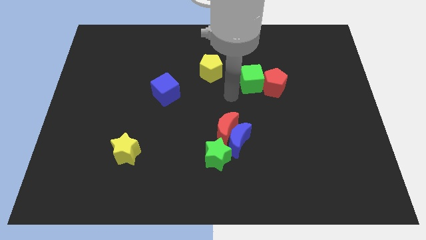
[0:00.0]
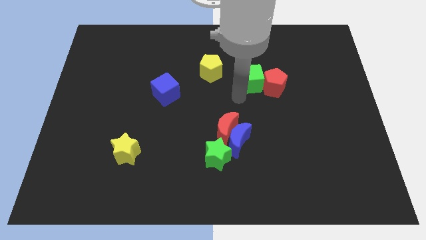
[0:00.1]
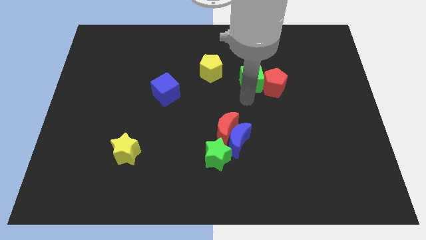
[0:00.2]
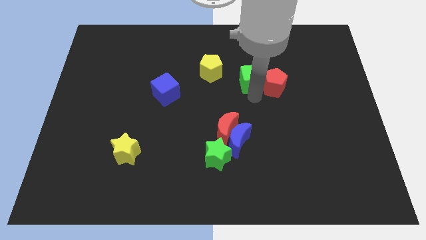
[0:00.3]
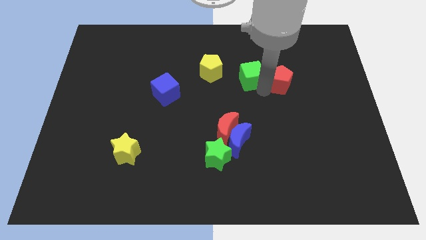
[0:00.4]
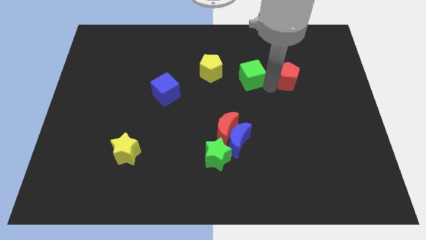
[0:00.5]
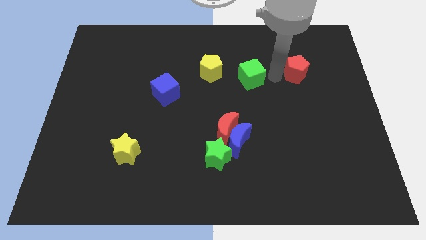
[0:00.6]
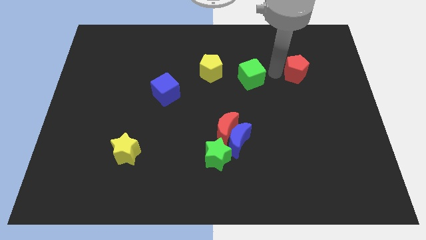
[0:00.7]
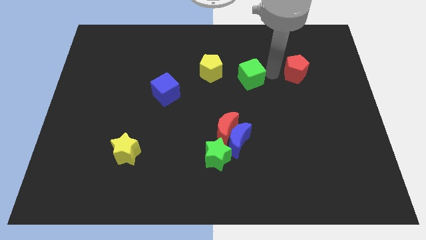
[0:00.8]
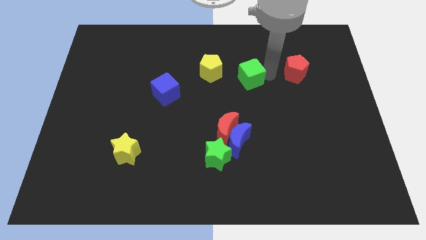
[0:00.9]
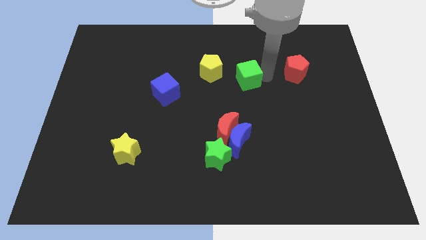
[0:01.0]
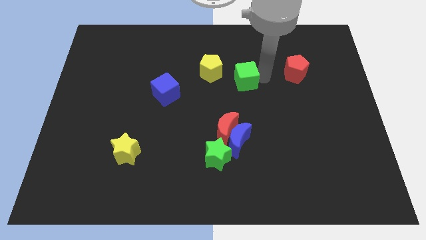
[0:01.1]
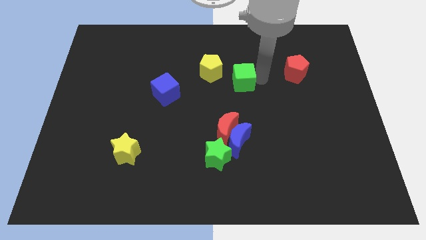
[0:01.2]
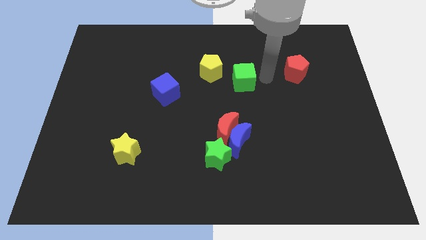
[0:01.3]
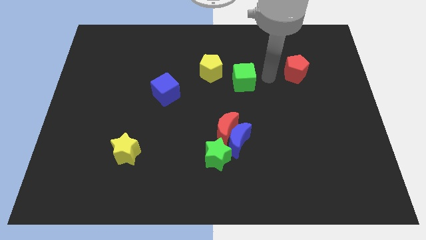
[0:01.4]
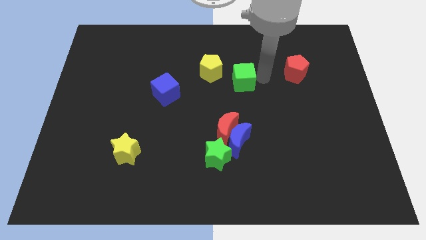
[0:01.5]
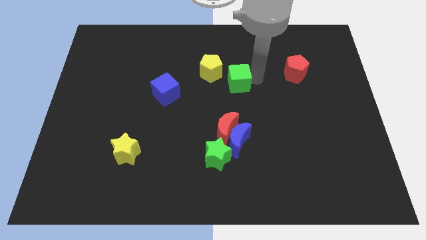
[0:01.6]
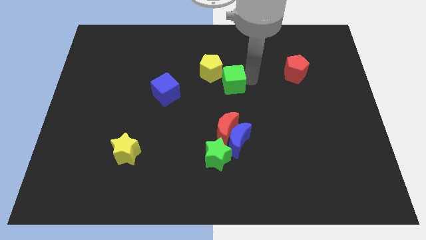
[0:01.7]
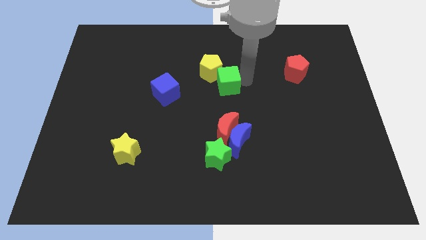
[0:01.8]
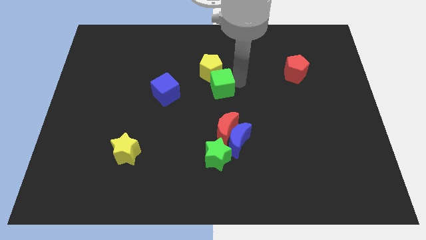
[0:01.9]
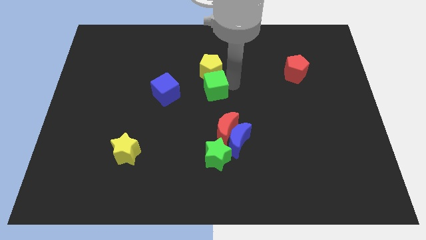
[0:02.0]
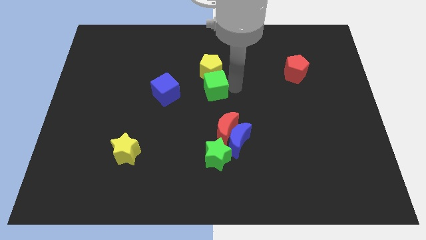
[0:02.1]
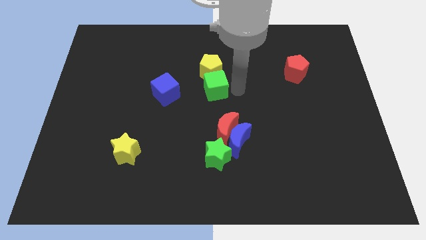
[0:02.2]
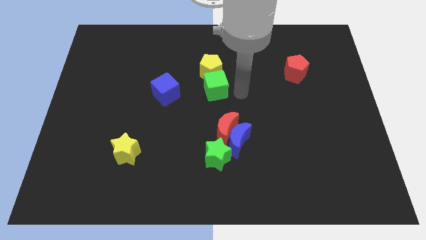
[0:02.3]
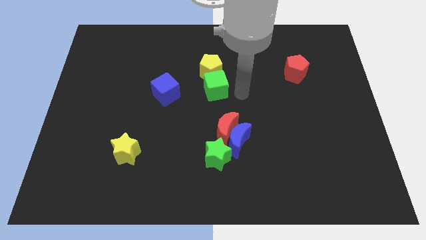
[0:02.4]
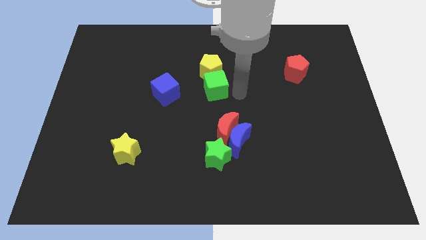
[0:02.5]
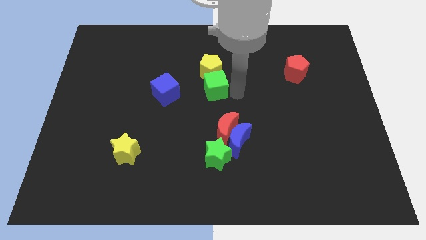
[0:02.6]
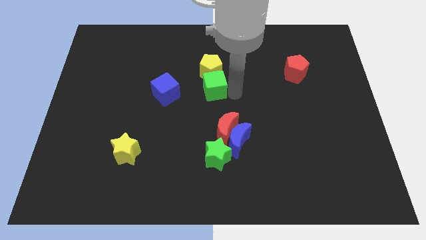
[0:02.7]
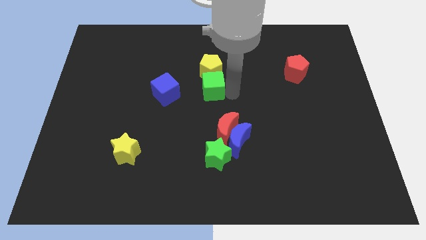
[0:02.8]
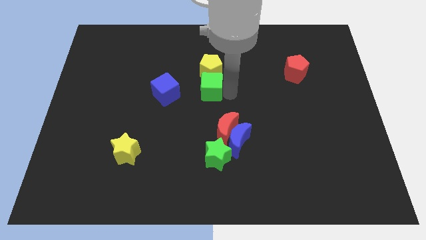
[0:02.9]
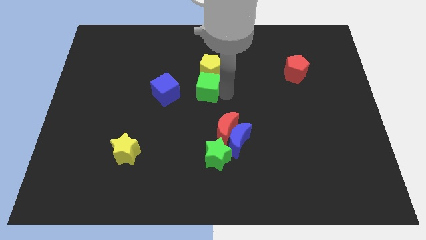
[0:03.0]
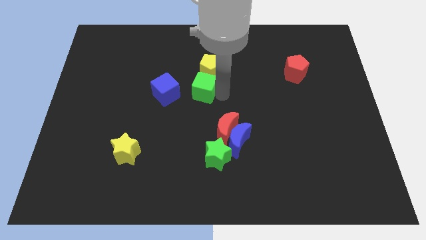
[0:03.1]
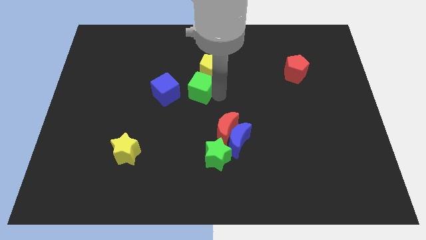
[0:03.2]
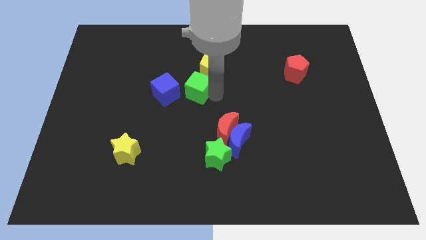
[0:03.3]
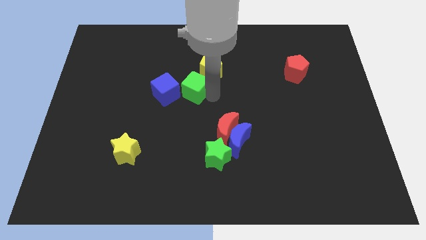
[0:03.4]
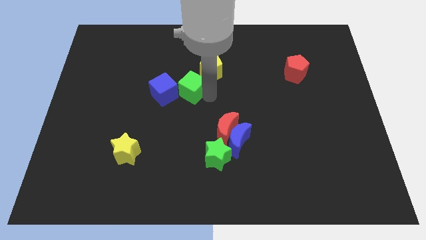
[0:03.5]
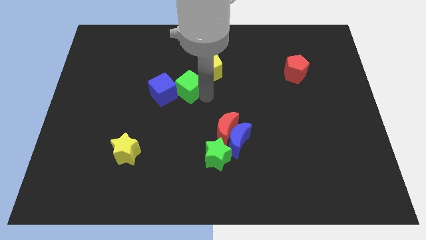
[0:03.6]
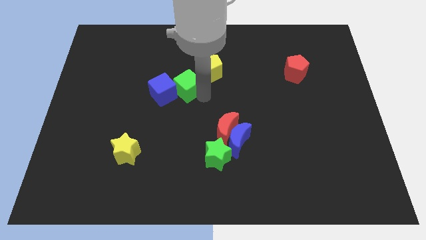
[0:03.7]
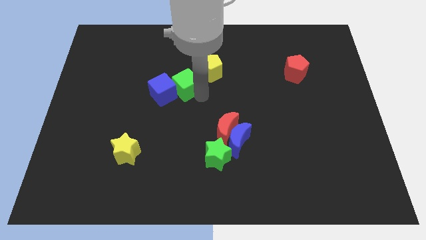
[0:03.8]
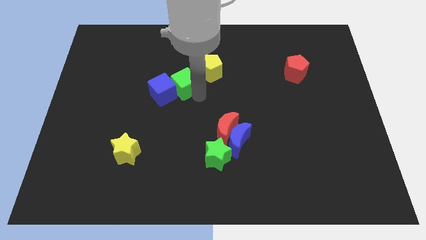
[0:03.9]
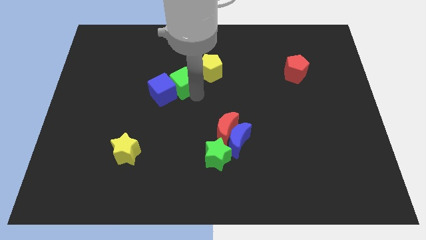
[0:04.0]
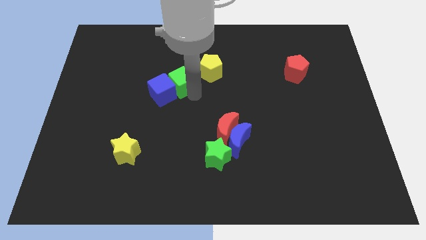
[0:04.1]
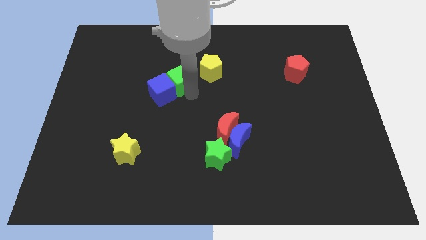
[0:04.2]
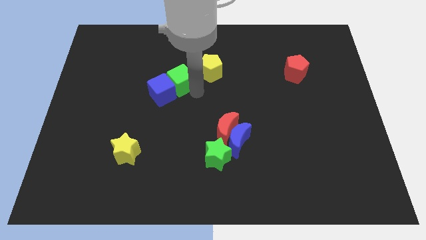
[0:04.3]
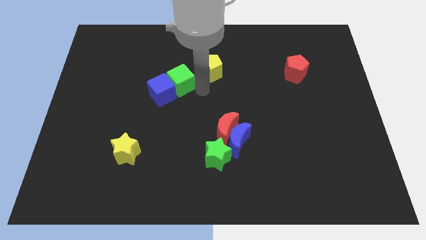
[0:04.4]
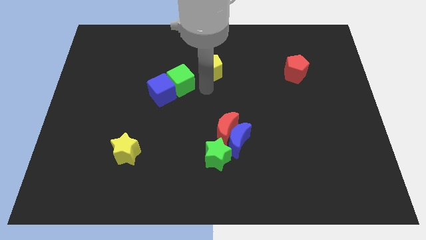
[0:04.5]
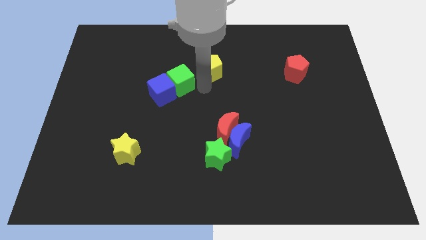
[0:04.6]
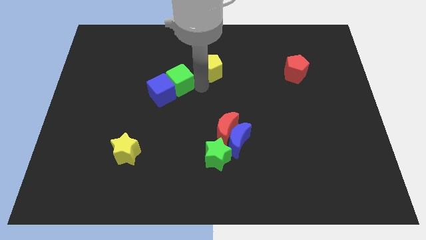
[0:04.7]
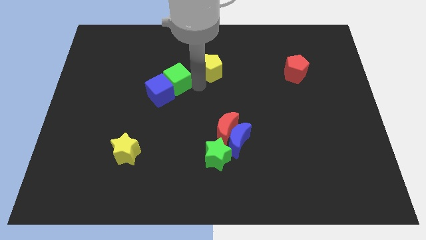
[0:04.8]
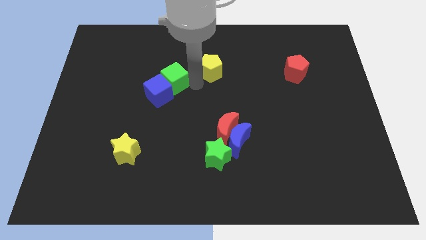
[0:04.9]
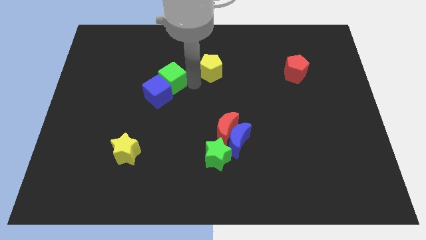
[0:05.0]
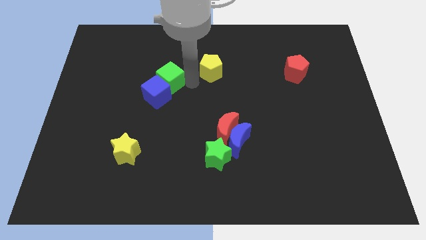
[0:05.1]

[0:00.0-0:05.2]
move the green cube to the left

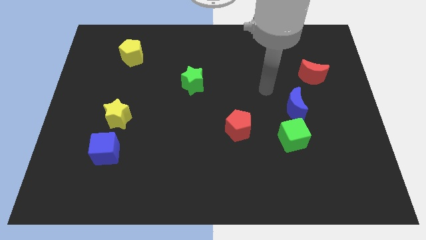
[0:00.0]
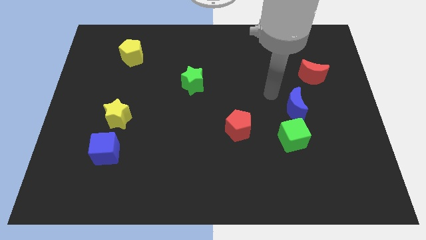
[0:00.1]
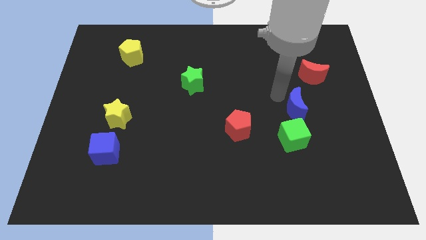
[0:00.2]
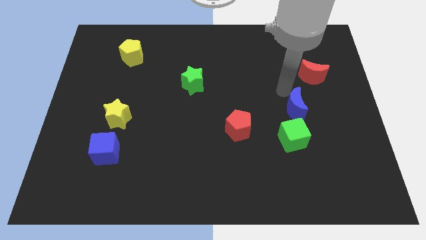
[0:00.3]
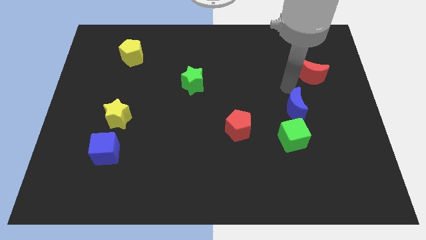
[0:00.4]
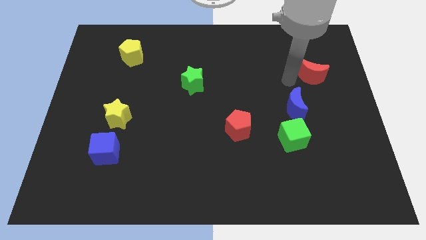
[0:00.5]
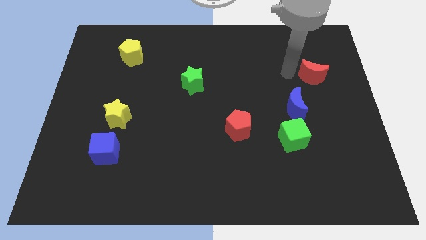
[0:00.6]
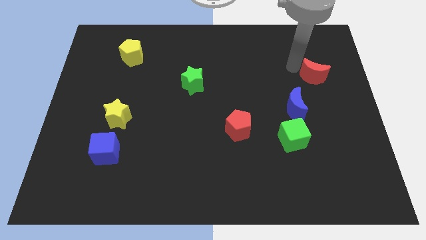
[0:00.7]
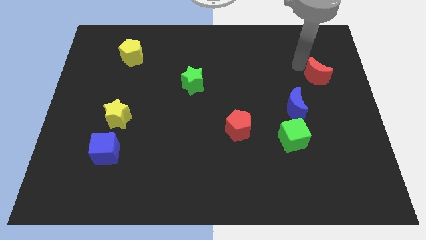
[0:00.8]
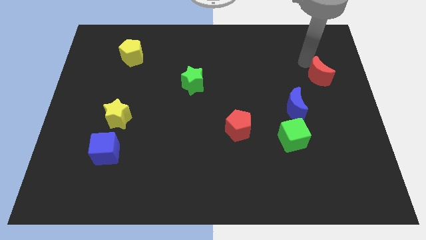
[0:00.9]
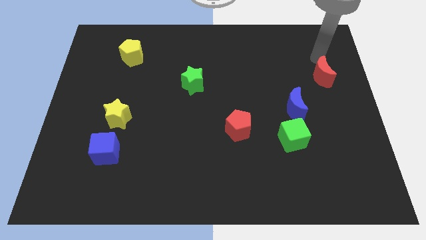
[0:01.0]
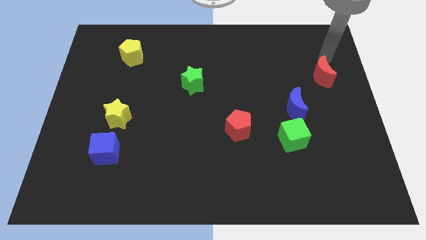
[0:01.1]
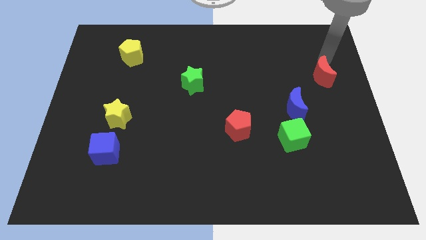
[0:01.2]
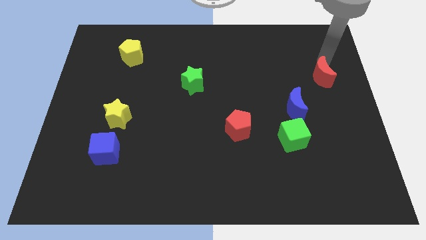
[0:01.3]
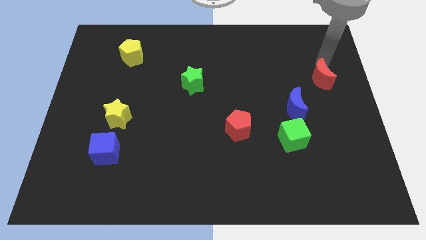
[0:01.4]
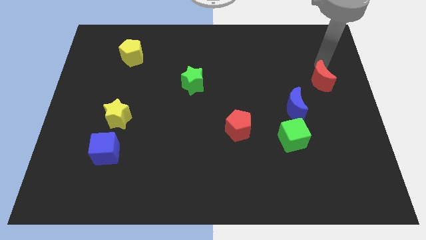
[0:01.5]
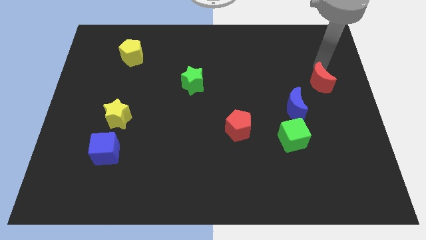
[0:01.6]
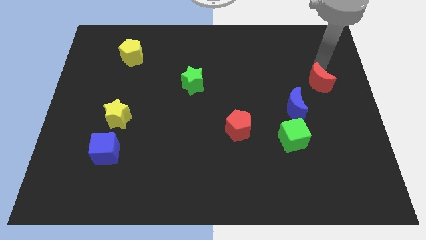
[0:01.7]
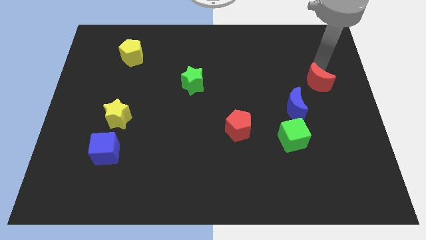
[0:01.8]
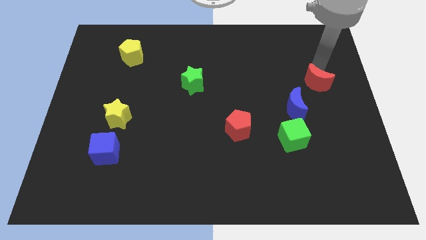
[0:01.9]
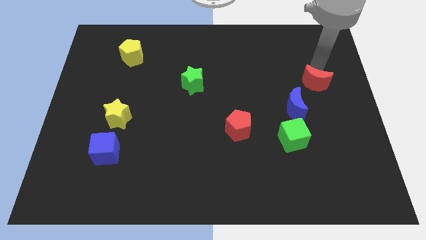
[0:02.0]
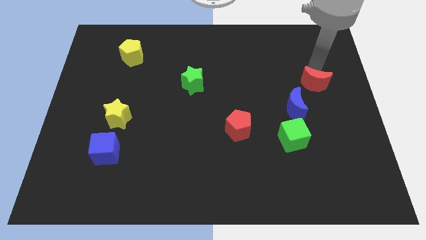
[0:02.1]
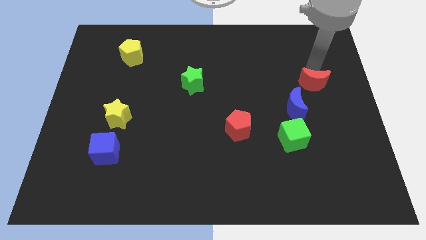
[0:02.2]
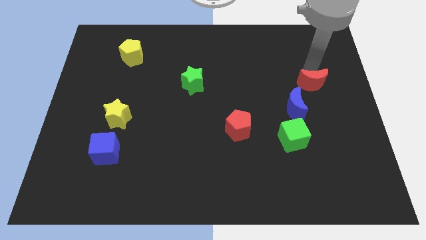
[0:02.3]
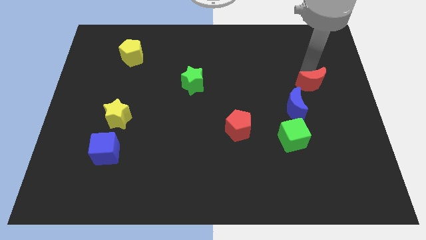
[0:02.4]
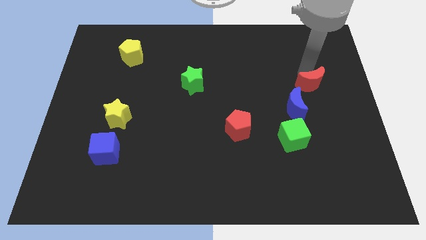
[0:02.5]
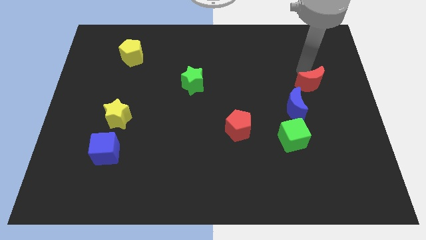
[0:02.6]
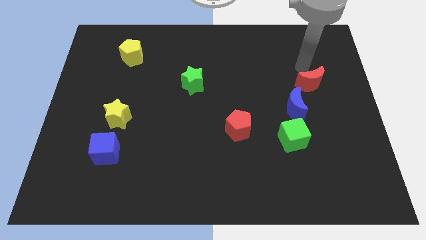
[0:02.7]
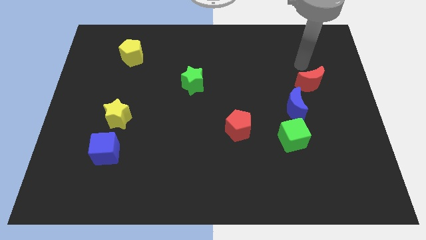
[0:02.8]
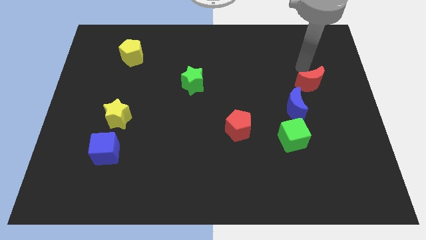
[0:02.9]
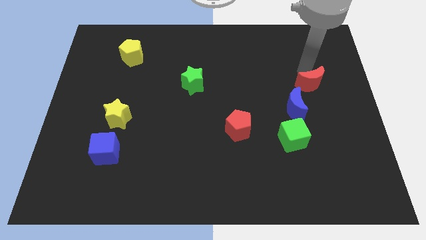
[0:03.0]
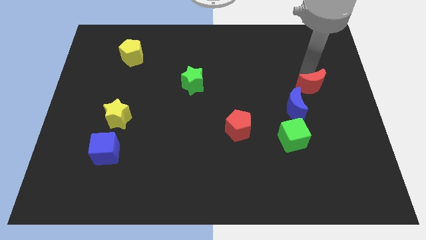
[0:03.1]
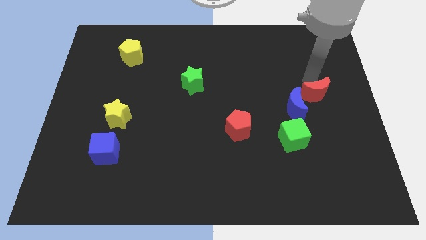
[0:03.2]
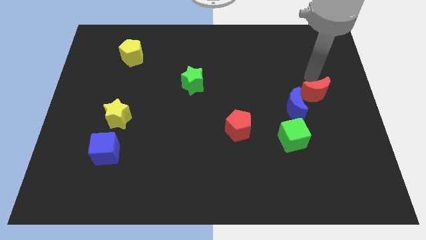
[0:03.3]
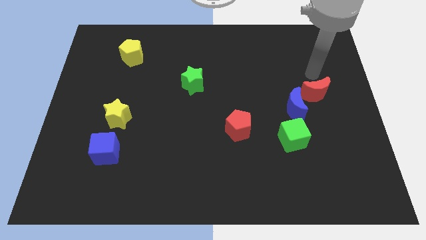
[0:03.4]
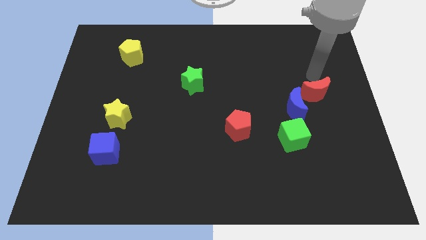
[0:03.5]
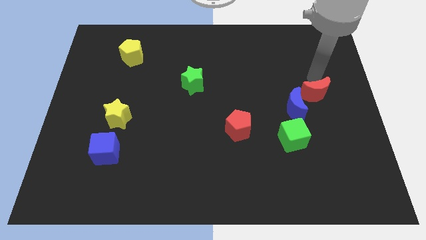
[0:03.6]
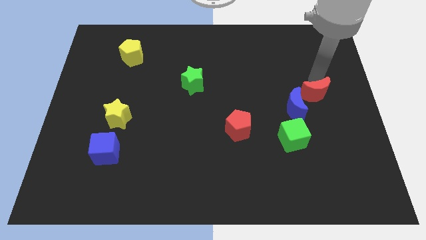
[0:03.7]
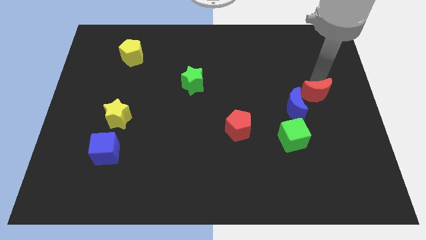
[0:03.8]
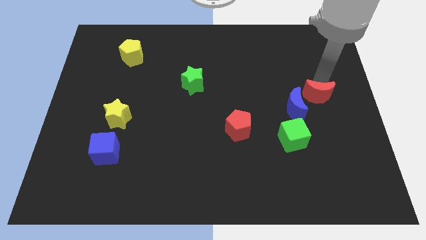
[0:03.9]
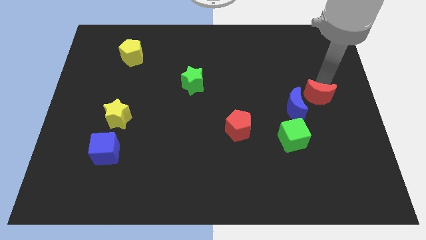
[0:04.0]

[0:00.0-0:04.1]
move the red moon a bit downwards
